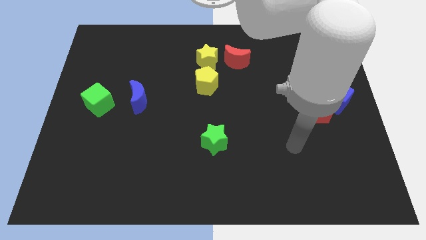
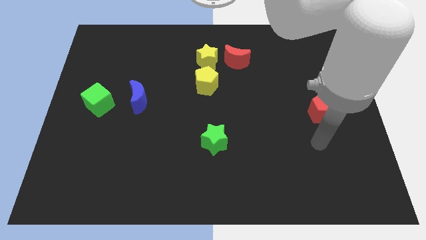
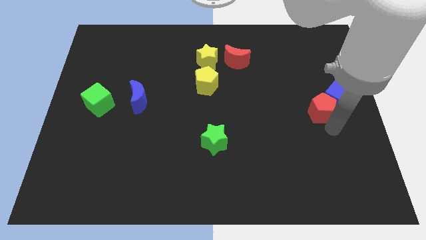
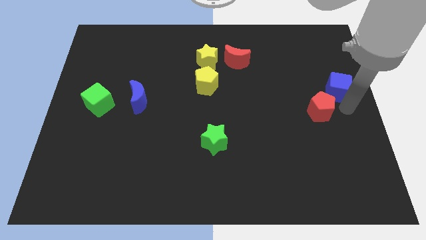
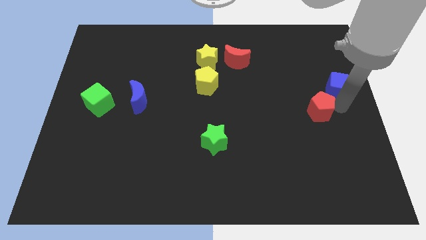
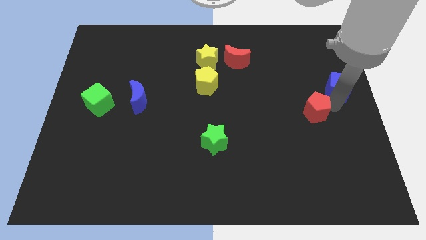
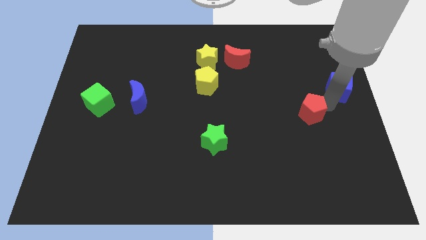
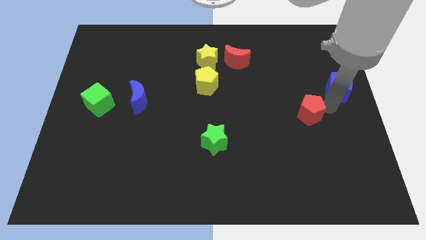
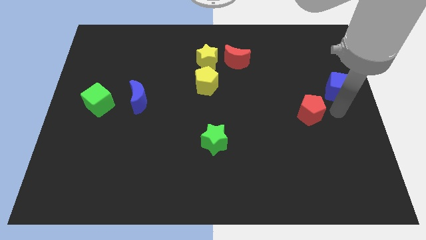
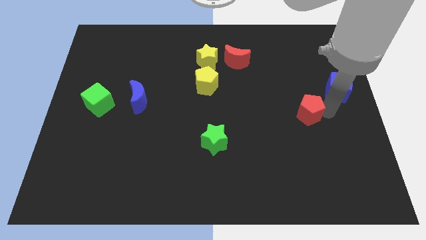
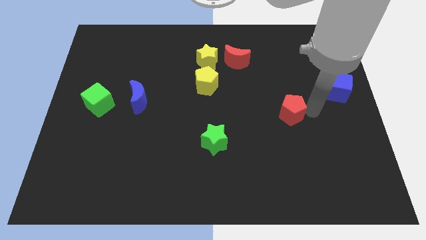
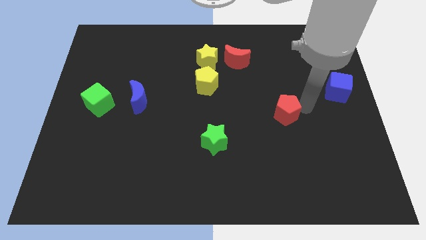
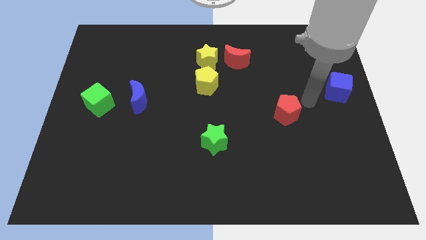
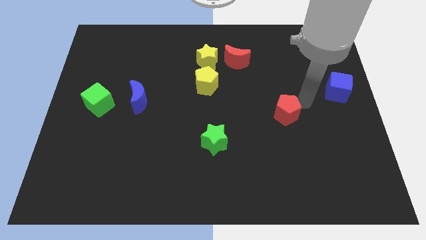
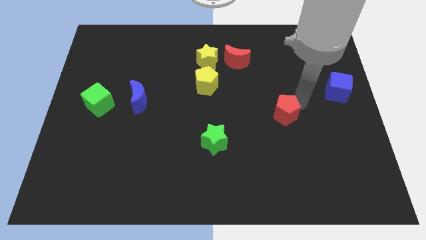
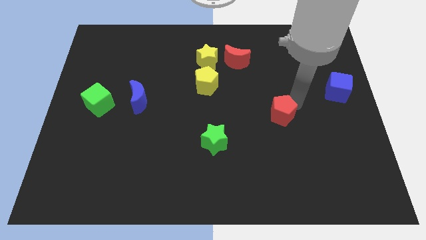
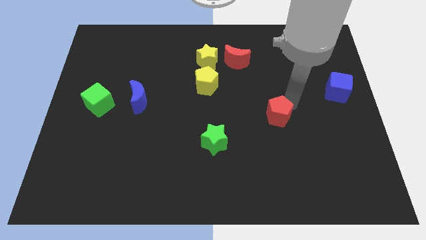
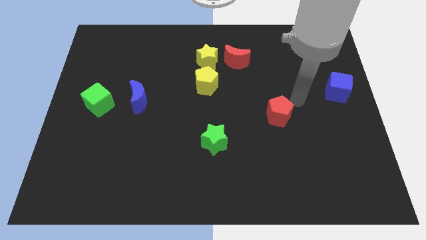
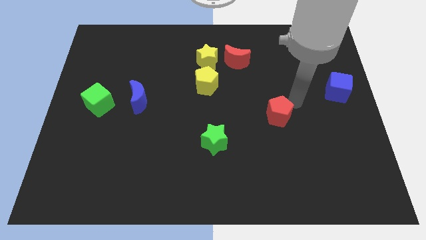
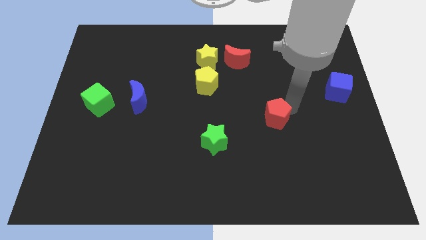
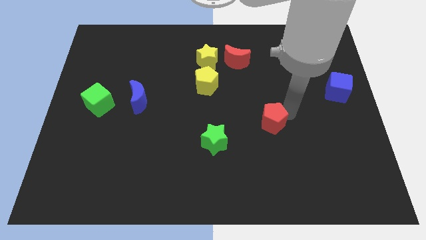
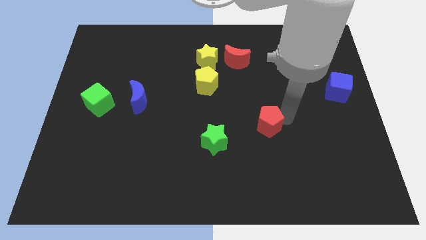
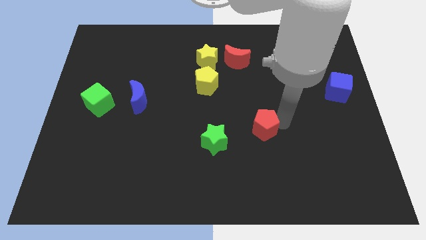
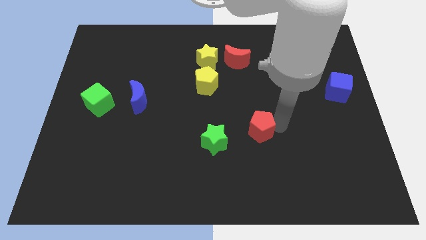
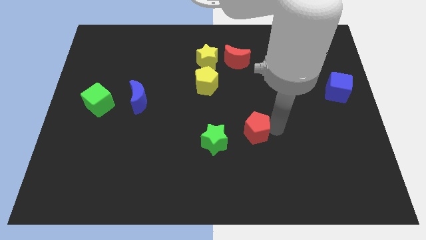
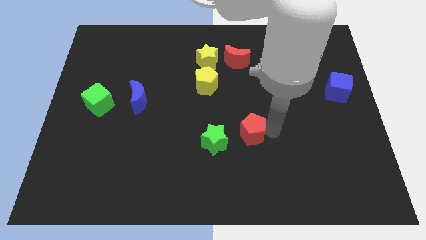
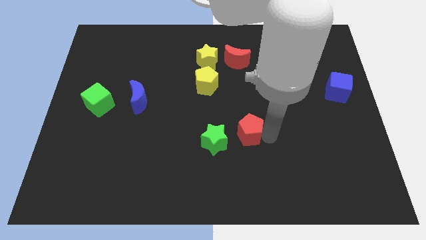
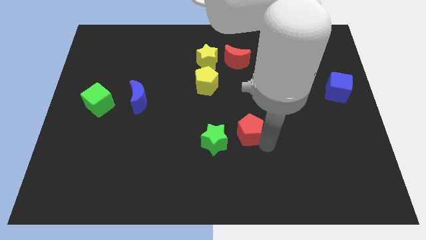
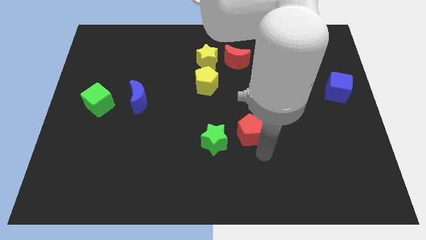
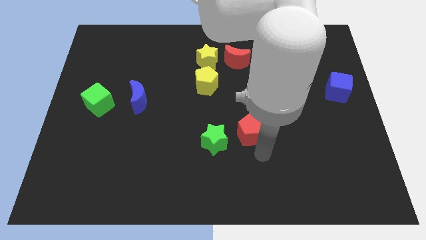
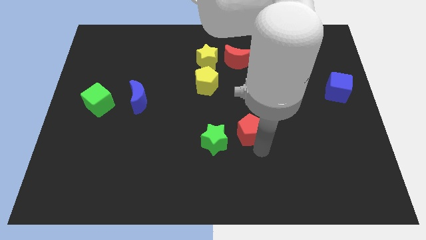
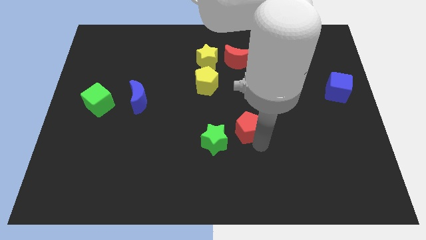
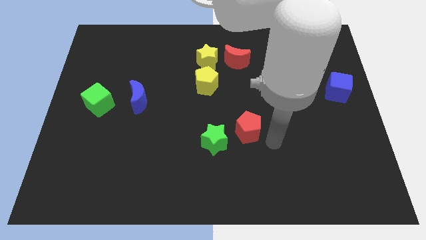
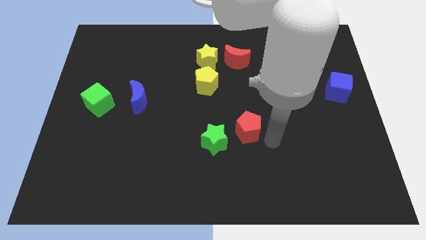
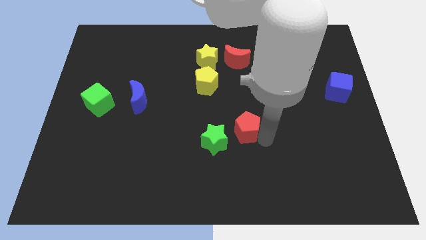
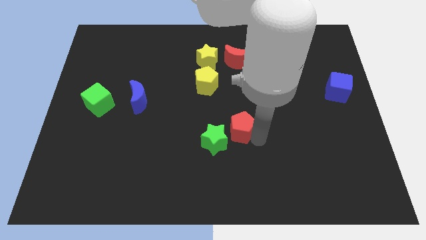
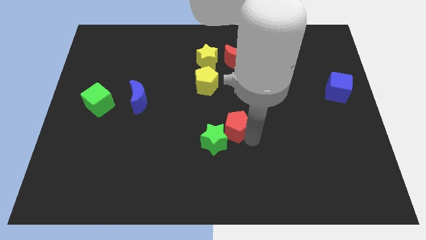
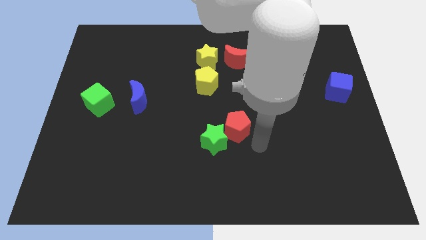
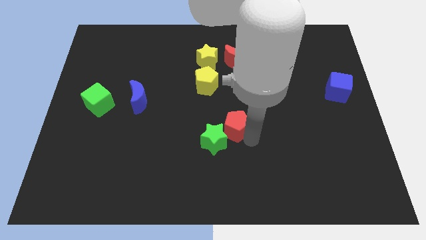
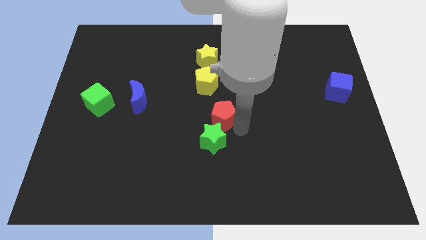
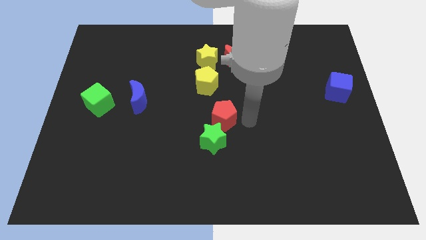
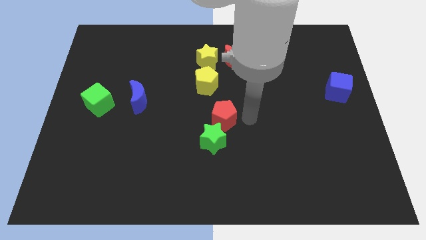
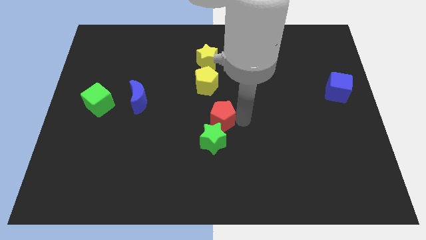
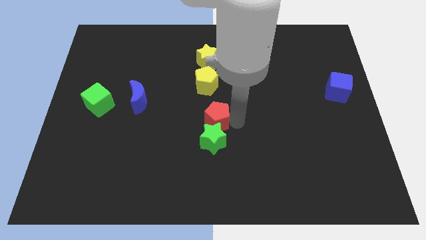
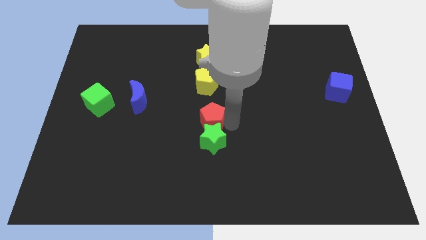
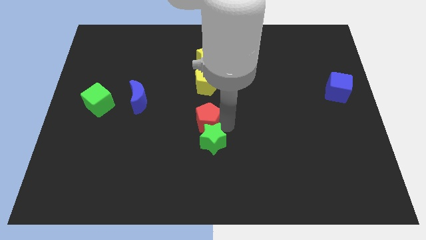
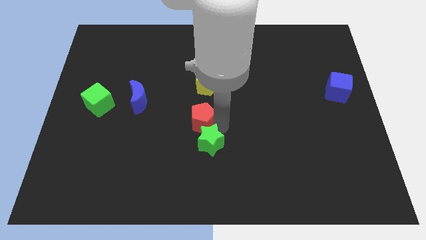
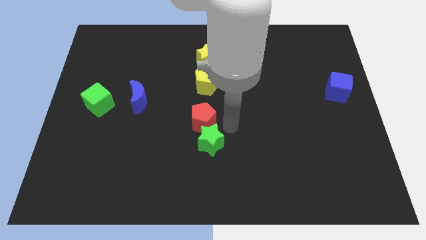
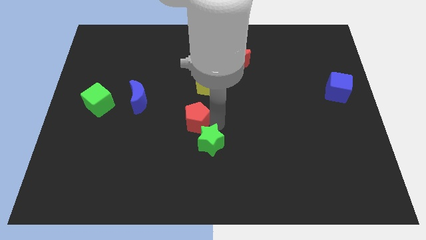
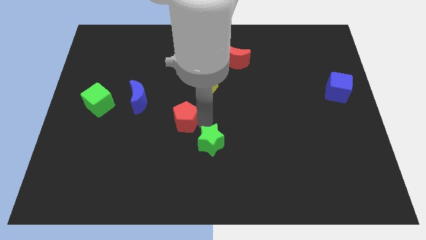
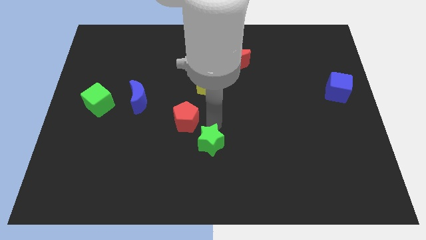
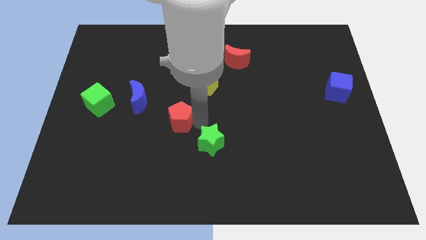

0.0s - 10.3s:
put the red pentagon to the bottom right of the blue moon
